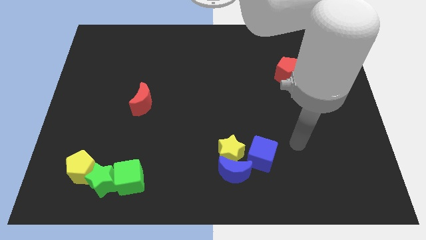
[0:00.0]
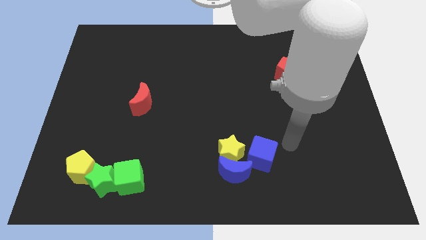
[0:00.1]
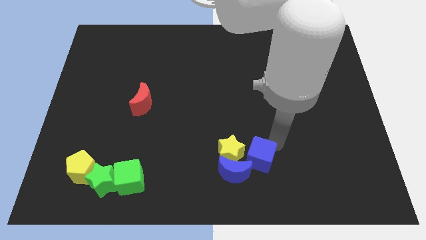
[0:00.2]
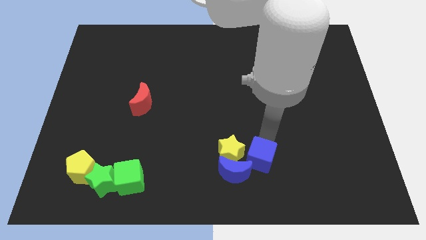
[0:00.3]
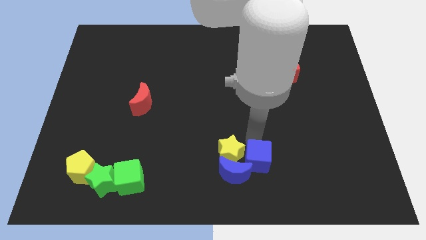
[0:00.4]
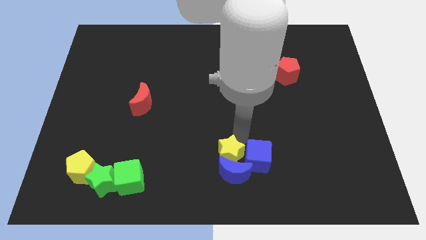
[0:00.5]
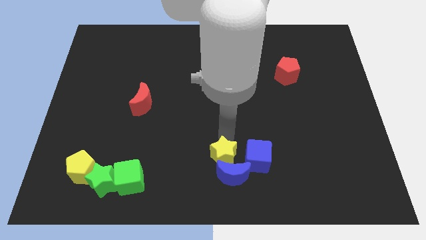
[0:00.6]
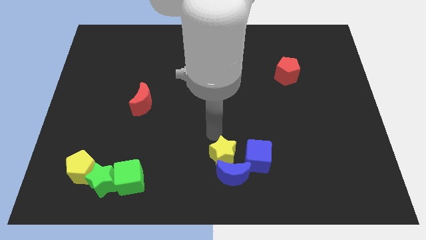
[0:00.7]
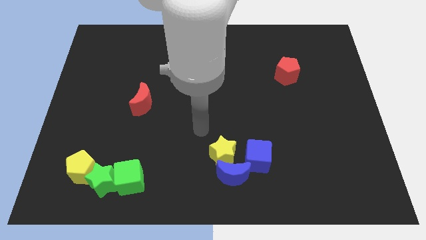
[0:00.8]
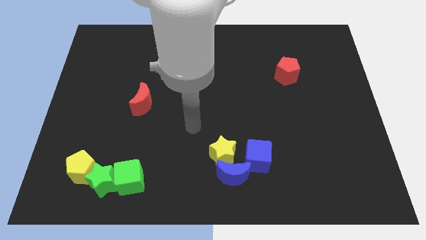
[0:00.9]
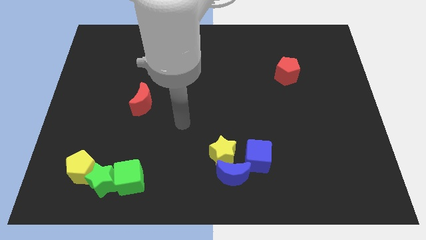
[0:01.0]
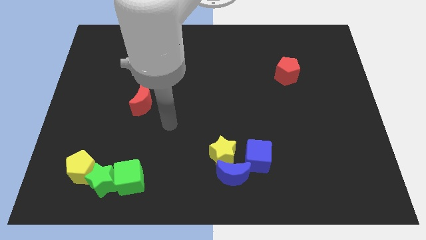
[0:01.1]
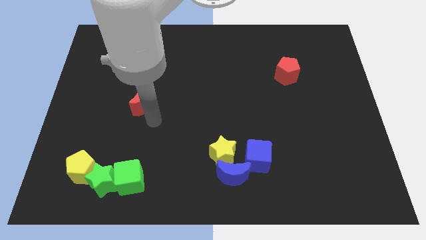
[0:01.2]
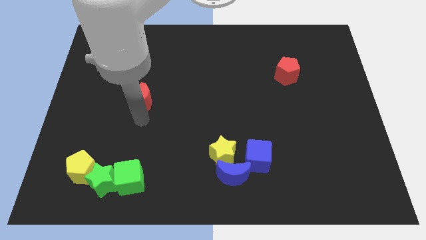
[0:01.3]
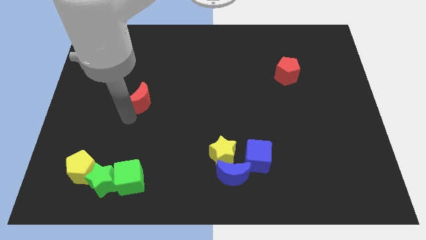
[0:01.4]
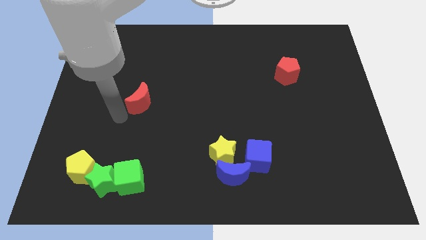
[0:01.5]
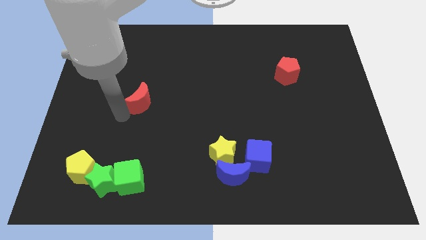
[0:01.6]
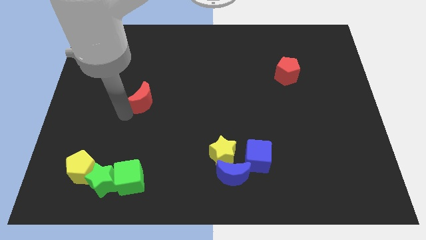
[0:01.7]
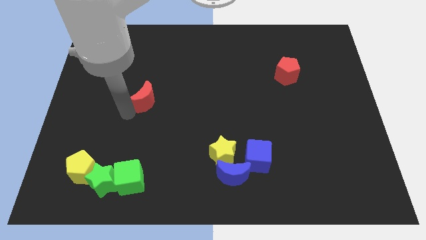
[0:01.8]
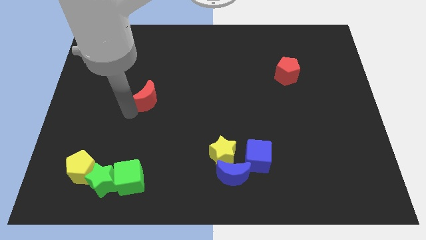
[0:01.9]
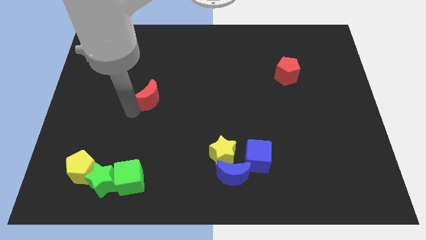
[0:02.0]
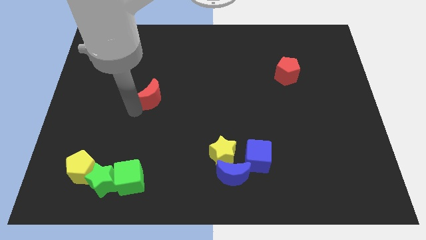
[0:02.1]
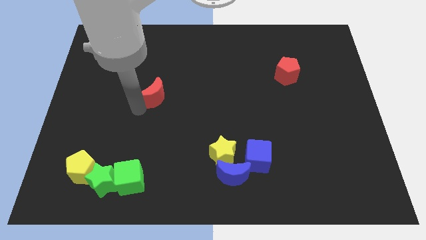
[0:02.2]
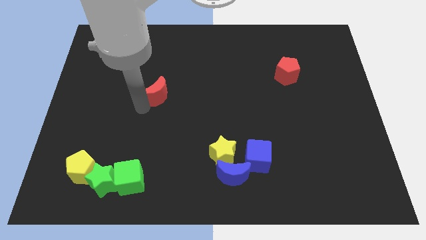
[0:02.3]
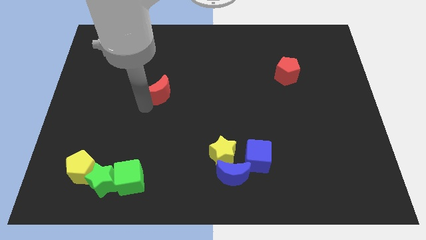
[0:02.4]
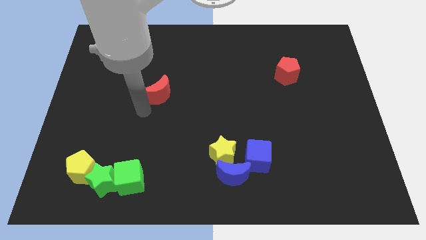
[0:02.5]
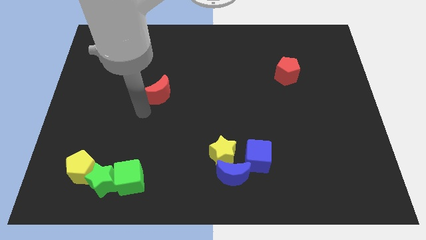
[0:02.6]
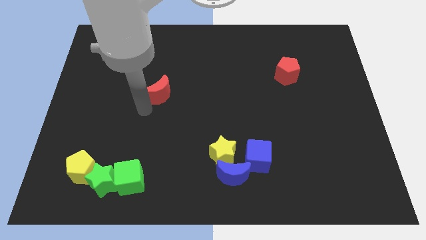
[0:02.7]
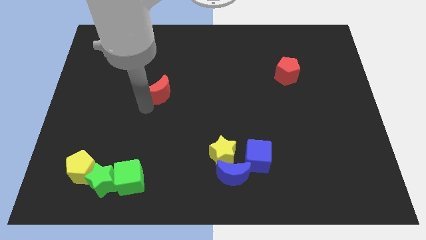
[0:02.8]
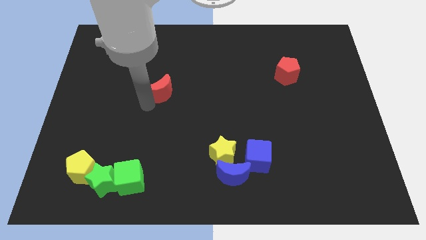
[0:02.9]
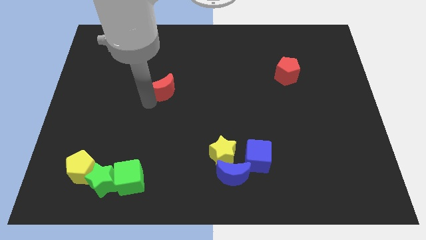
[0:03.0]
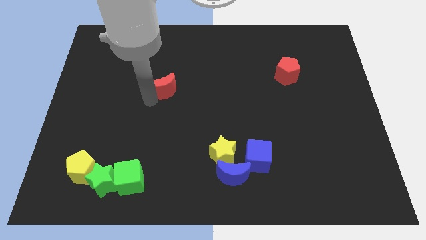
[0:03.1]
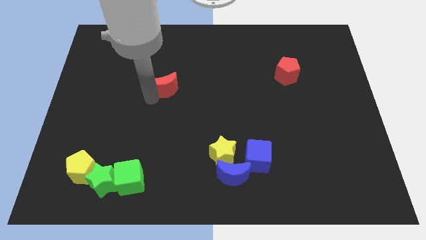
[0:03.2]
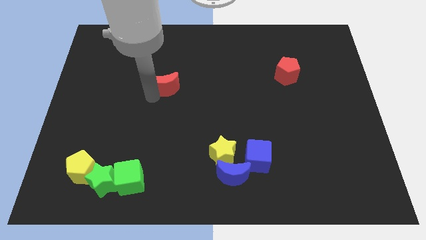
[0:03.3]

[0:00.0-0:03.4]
move the red moon a little bit upwards and then right

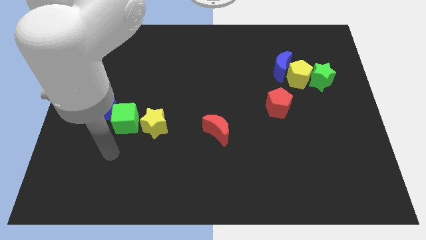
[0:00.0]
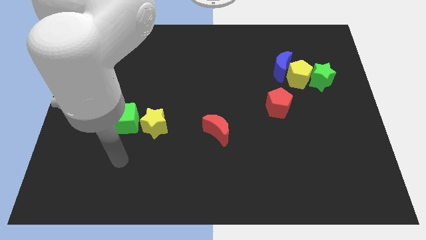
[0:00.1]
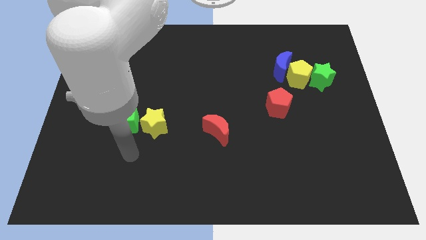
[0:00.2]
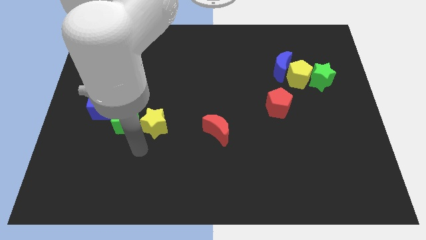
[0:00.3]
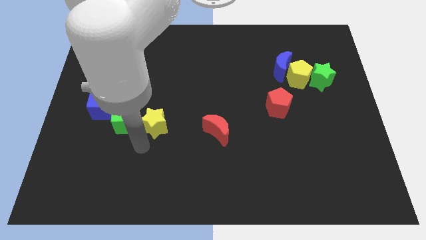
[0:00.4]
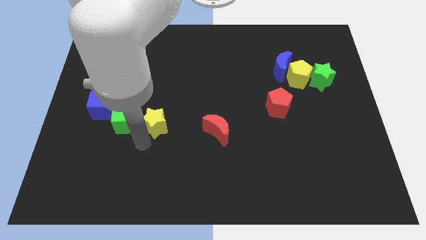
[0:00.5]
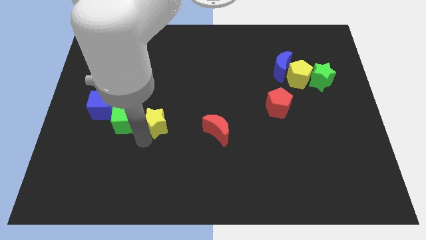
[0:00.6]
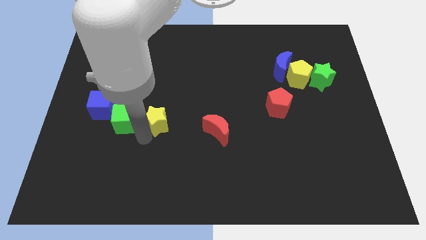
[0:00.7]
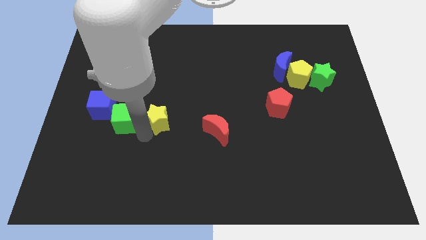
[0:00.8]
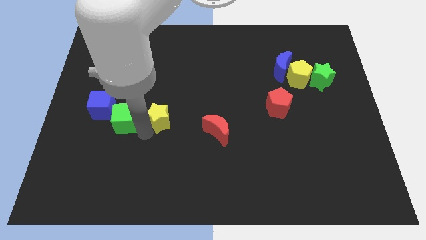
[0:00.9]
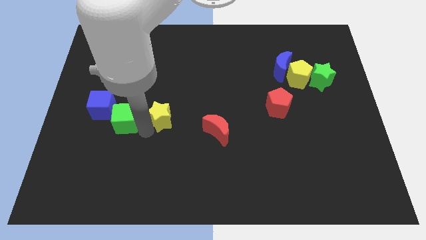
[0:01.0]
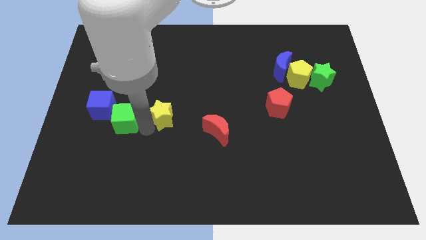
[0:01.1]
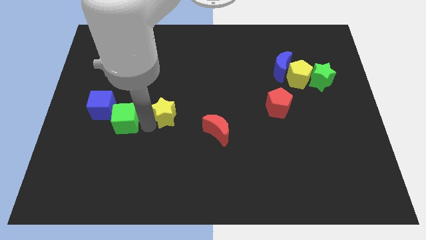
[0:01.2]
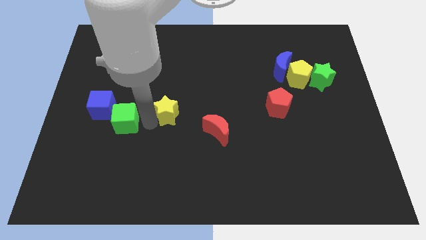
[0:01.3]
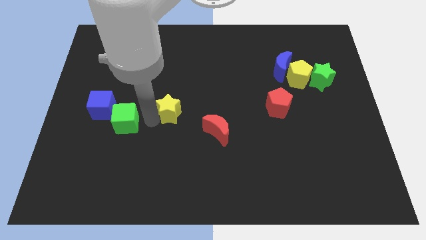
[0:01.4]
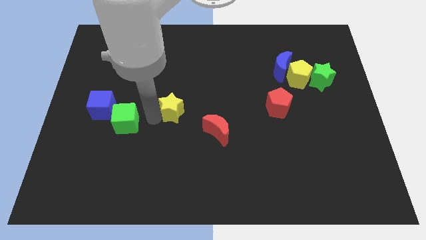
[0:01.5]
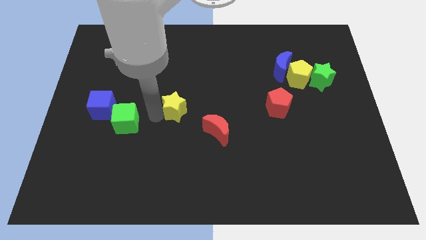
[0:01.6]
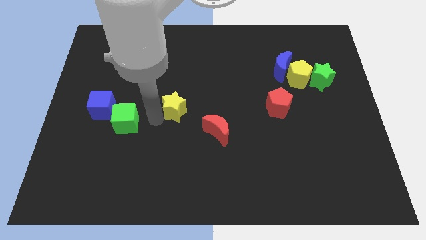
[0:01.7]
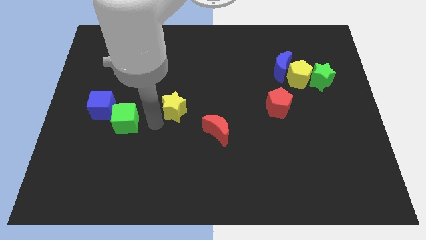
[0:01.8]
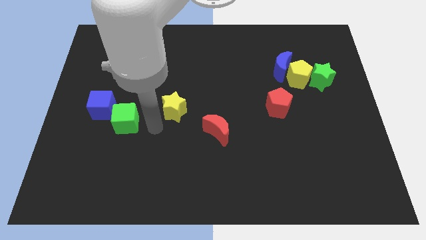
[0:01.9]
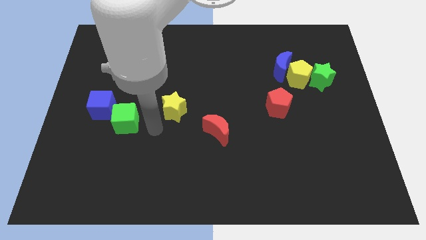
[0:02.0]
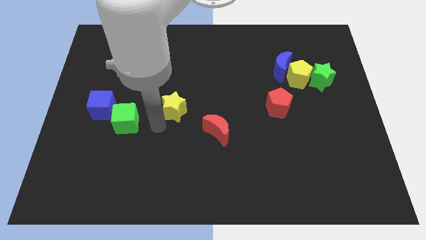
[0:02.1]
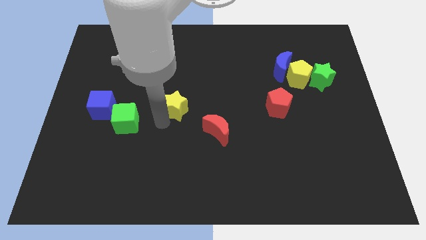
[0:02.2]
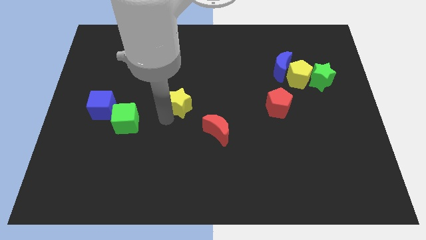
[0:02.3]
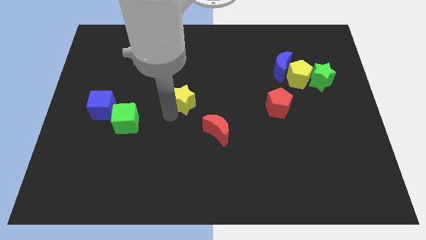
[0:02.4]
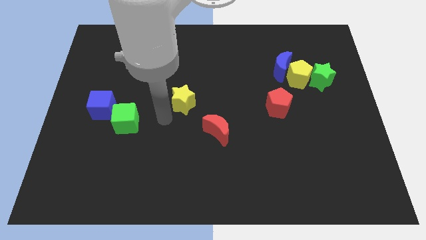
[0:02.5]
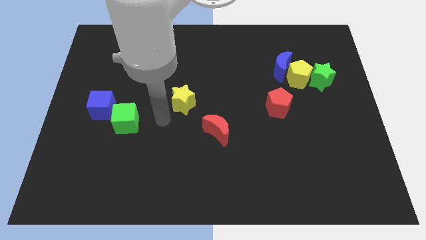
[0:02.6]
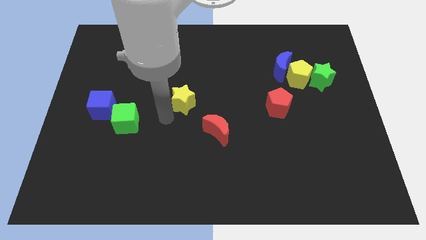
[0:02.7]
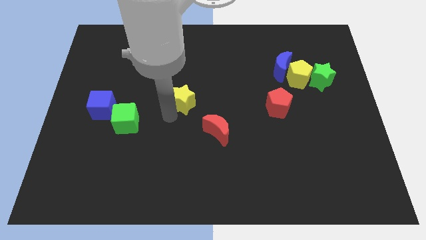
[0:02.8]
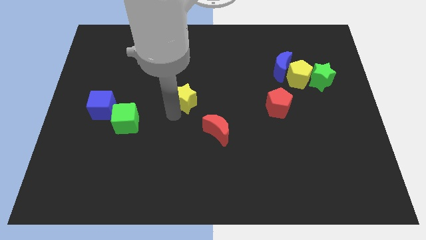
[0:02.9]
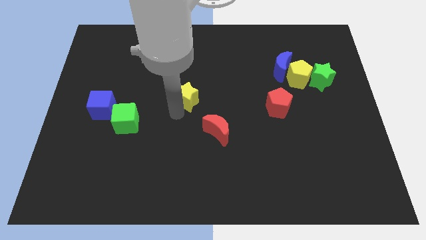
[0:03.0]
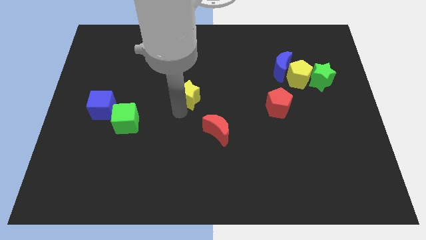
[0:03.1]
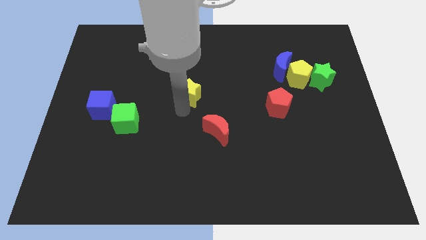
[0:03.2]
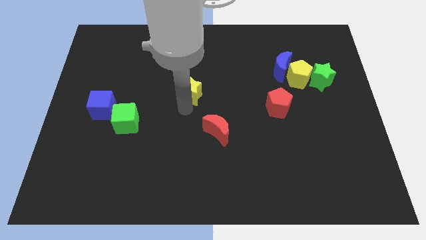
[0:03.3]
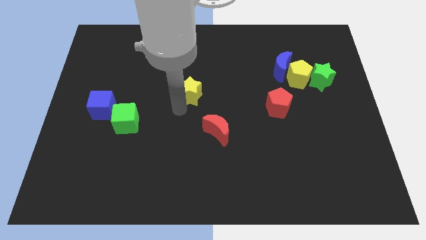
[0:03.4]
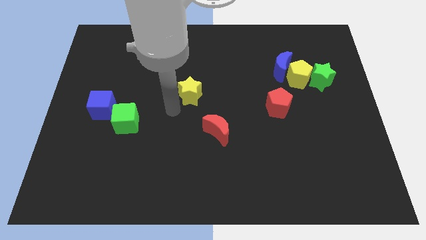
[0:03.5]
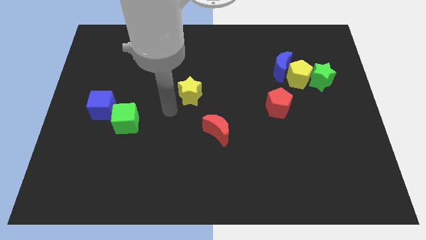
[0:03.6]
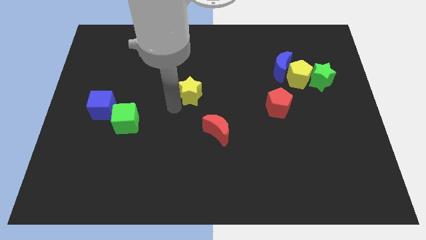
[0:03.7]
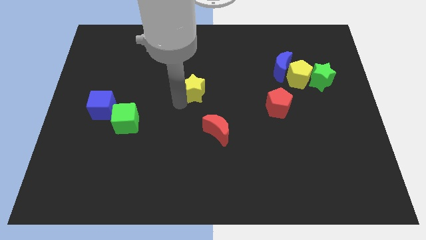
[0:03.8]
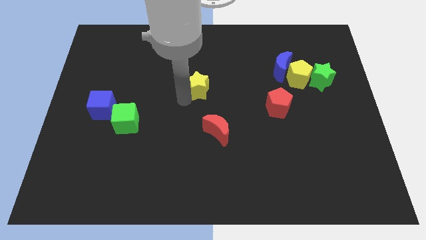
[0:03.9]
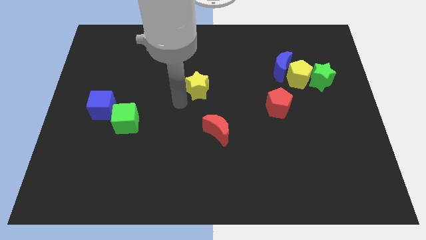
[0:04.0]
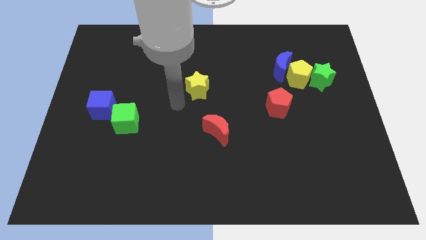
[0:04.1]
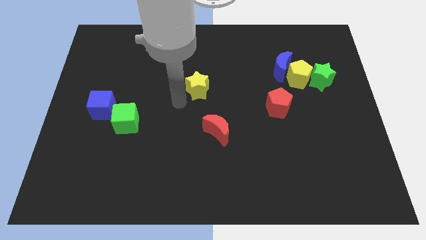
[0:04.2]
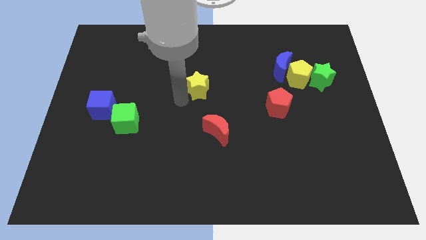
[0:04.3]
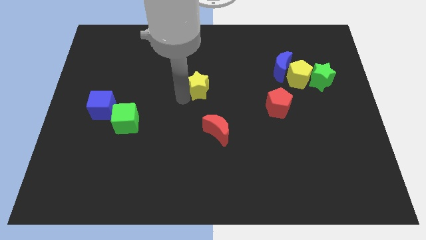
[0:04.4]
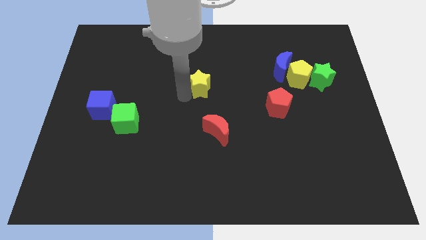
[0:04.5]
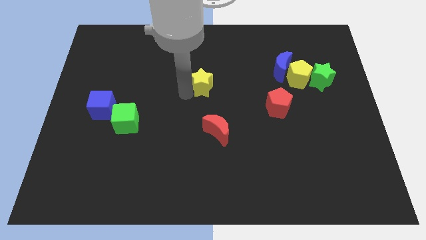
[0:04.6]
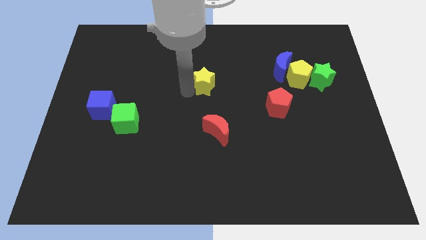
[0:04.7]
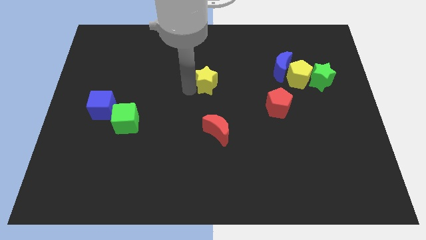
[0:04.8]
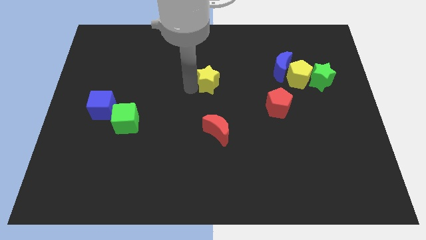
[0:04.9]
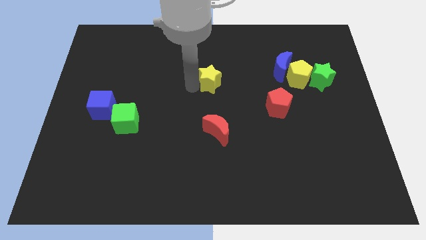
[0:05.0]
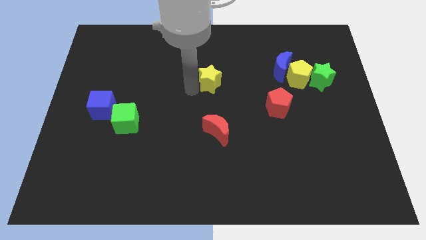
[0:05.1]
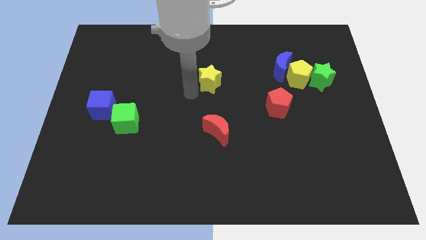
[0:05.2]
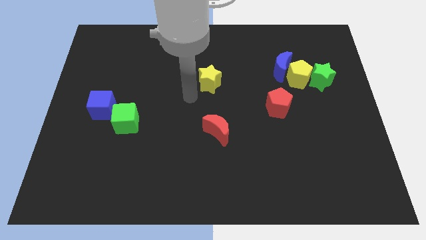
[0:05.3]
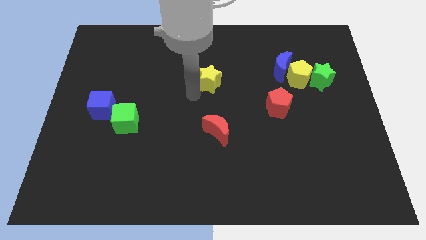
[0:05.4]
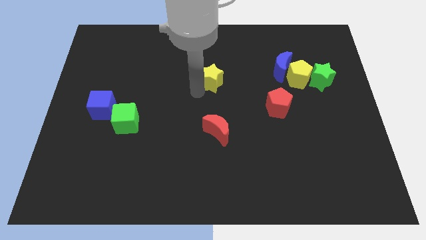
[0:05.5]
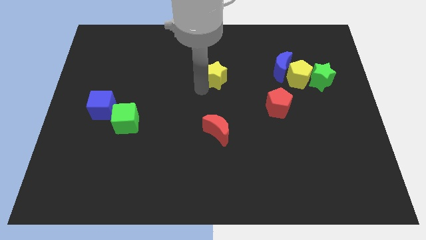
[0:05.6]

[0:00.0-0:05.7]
slide the yellow star diagonally up and right
